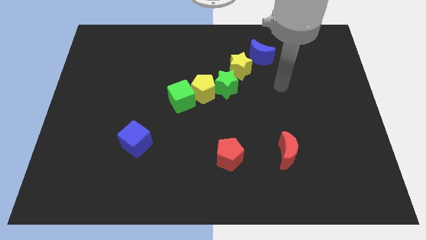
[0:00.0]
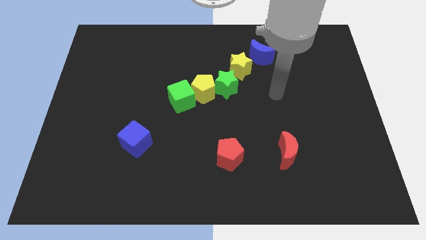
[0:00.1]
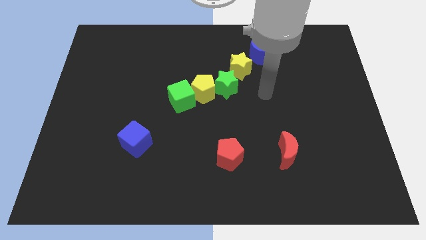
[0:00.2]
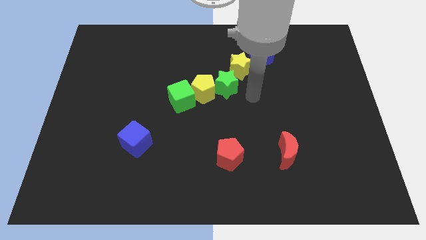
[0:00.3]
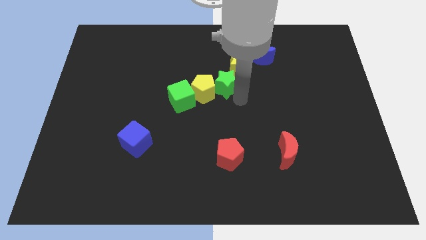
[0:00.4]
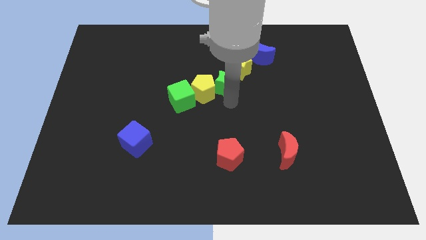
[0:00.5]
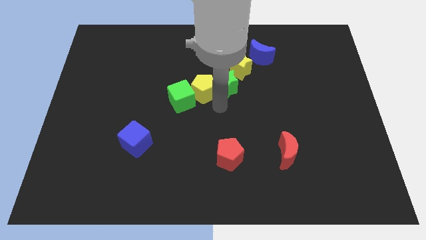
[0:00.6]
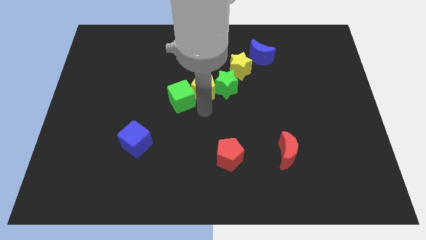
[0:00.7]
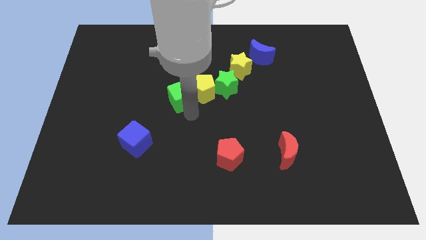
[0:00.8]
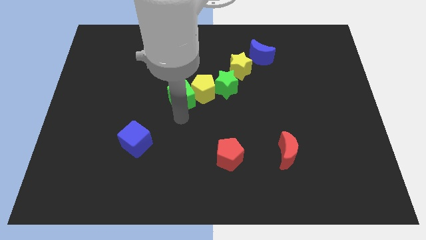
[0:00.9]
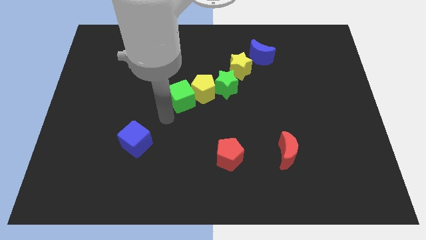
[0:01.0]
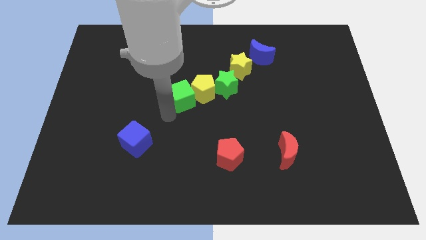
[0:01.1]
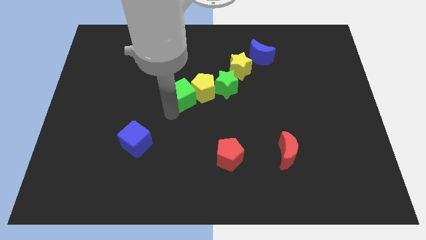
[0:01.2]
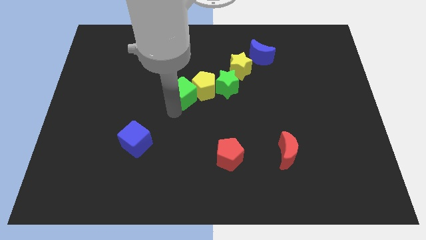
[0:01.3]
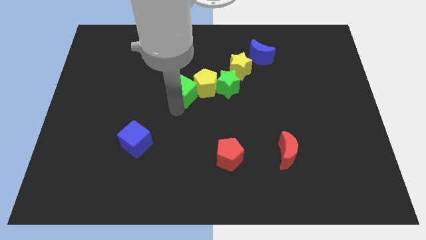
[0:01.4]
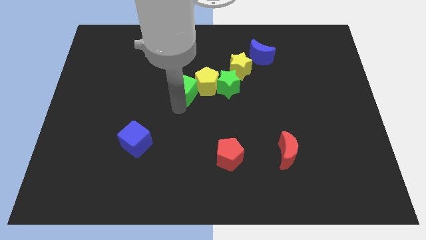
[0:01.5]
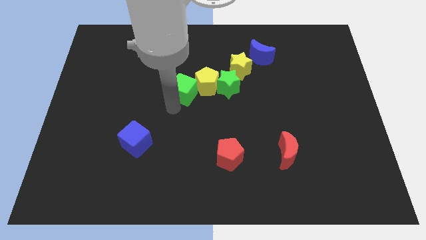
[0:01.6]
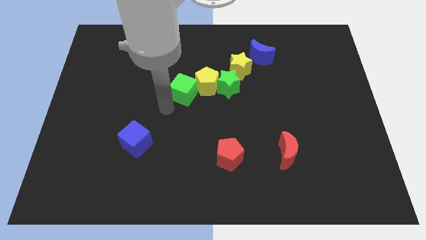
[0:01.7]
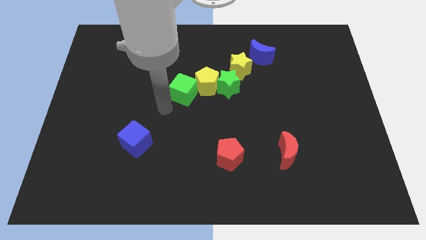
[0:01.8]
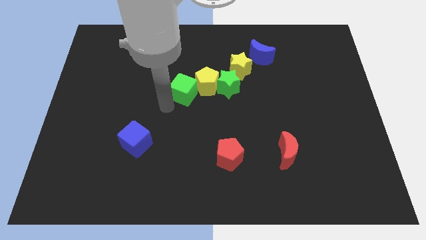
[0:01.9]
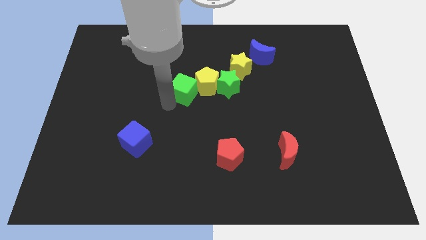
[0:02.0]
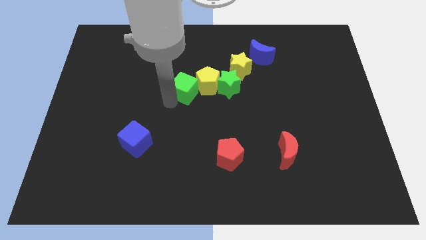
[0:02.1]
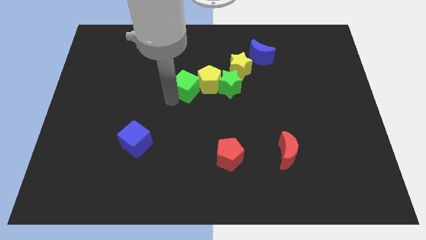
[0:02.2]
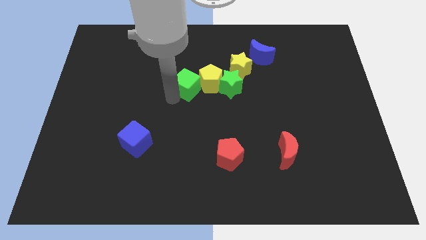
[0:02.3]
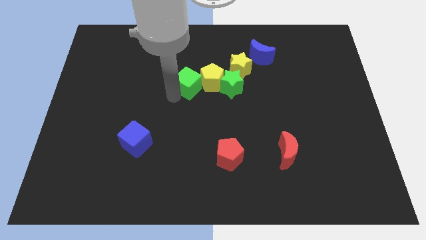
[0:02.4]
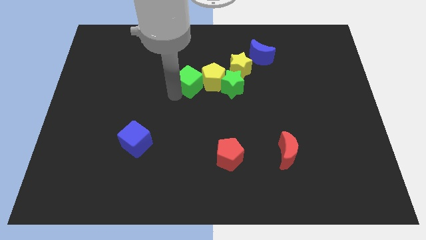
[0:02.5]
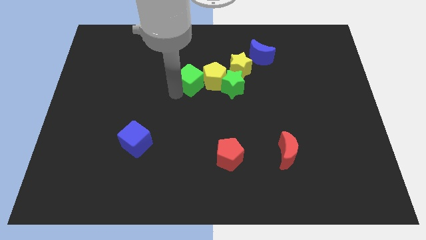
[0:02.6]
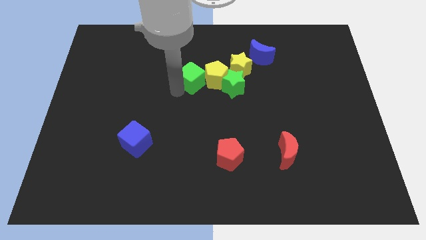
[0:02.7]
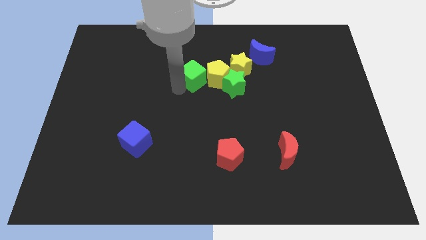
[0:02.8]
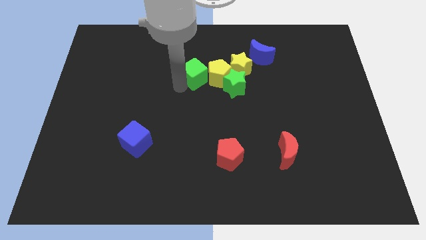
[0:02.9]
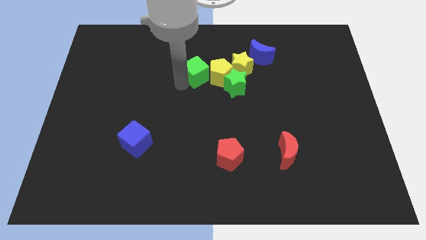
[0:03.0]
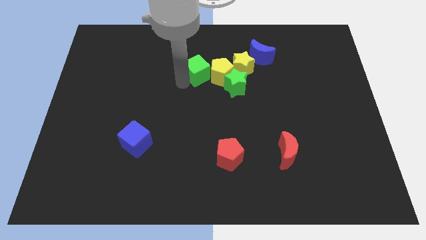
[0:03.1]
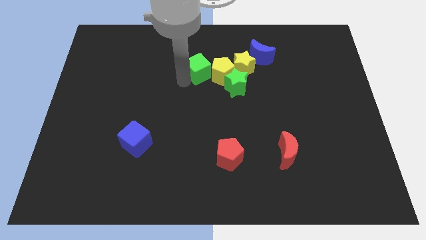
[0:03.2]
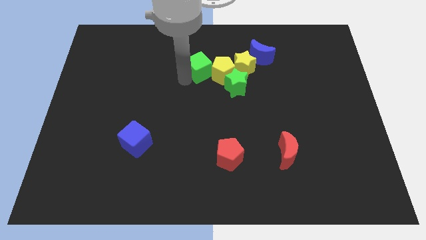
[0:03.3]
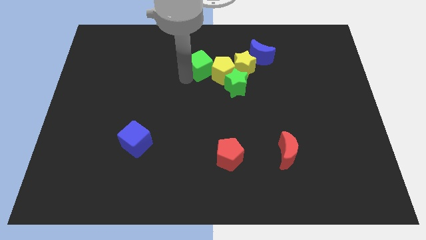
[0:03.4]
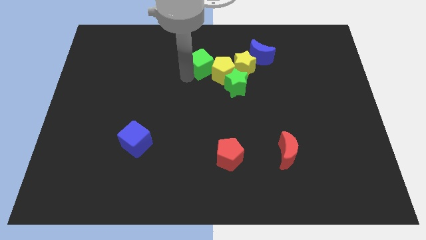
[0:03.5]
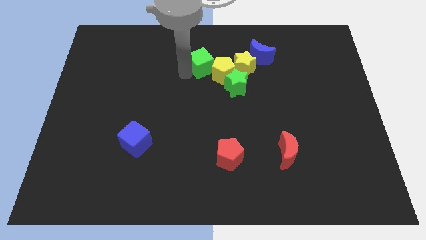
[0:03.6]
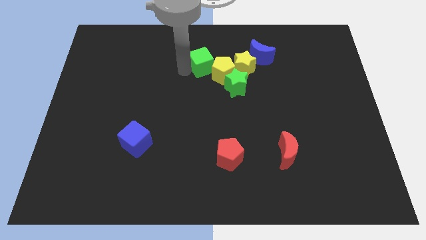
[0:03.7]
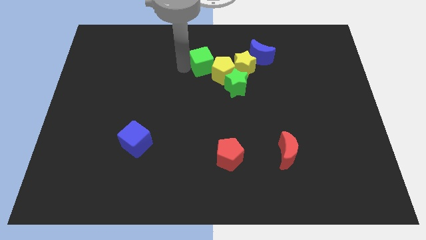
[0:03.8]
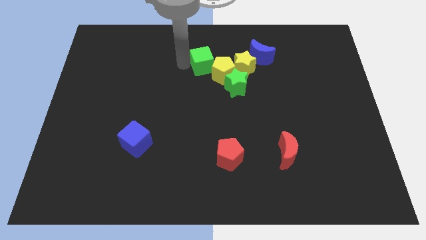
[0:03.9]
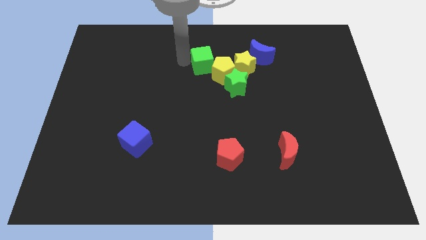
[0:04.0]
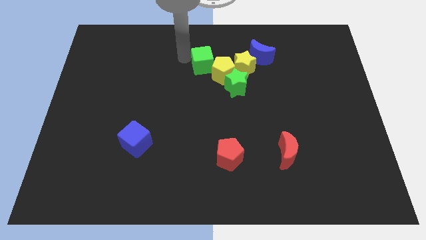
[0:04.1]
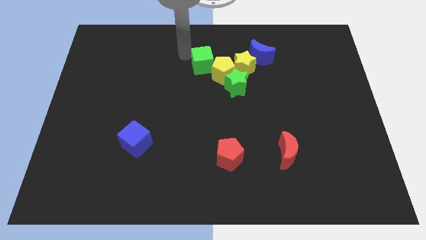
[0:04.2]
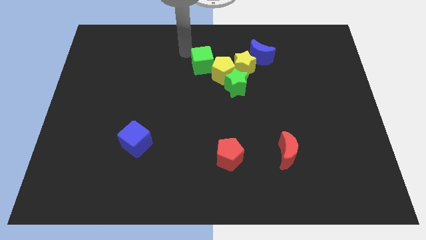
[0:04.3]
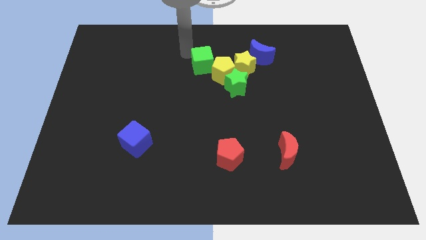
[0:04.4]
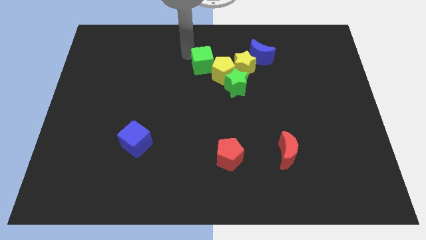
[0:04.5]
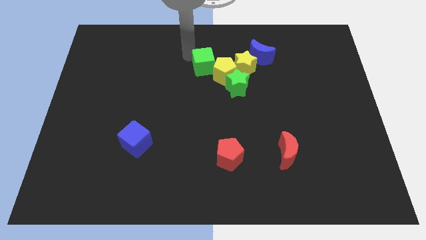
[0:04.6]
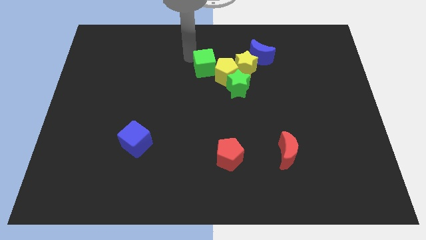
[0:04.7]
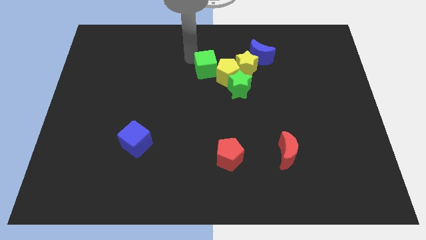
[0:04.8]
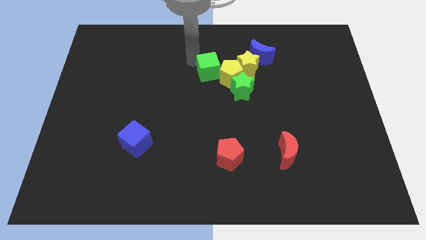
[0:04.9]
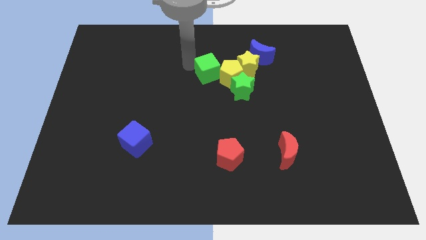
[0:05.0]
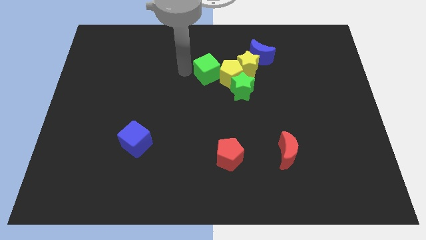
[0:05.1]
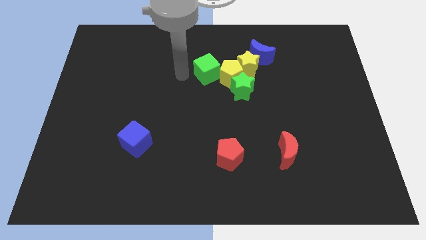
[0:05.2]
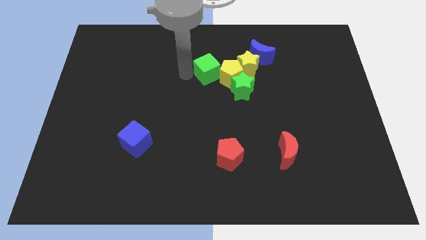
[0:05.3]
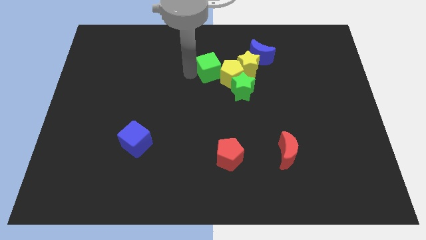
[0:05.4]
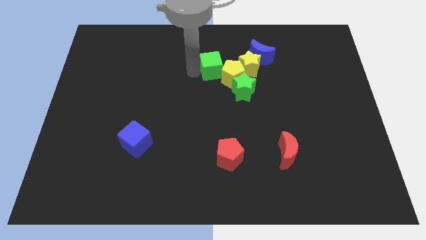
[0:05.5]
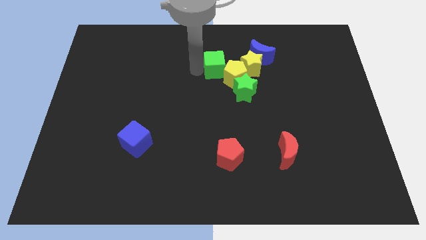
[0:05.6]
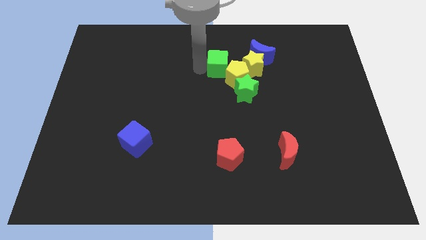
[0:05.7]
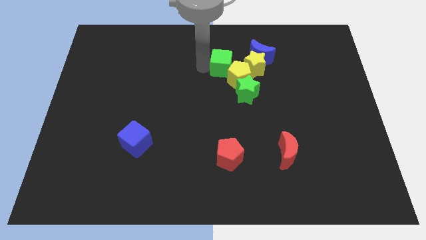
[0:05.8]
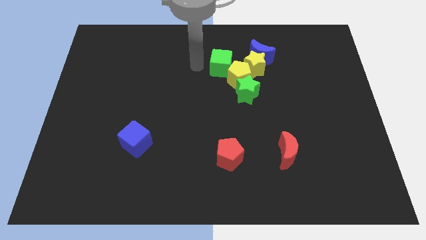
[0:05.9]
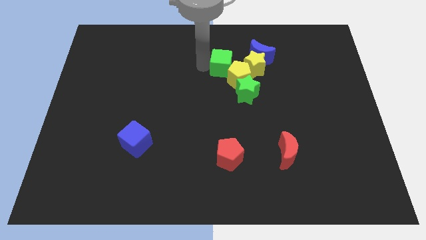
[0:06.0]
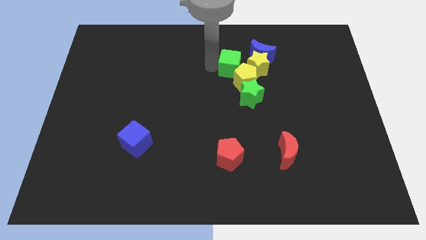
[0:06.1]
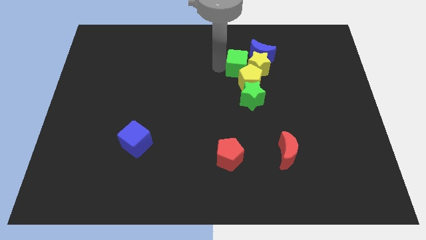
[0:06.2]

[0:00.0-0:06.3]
move the green cube close to the yellow star

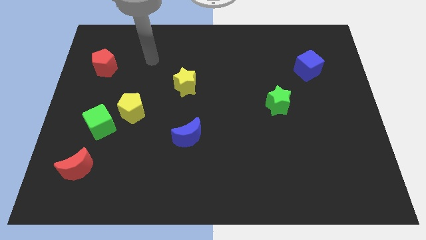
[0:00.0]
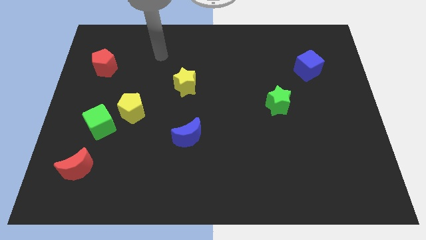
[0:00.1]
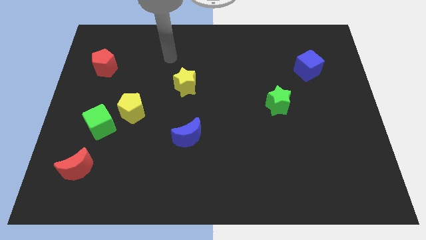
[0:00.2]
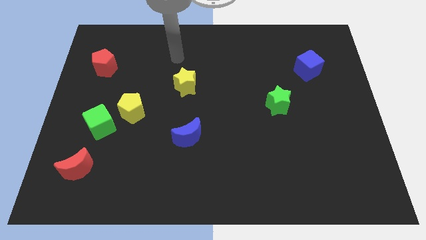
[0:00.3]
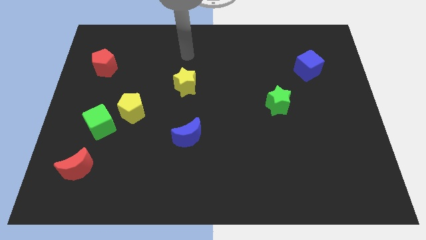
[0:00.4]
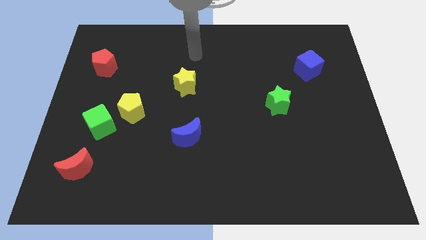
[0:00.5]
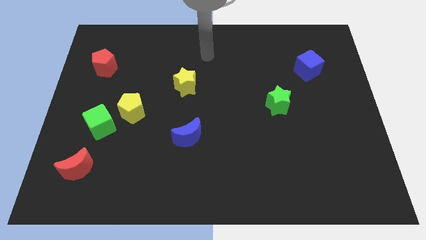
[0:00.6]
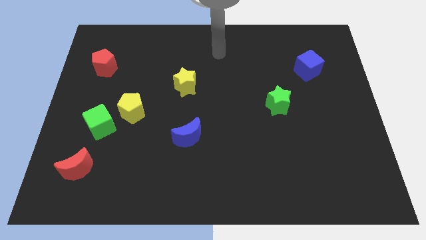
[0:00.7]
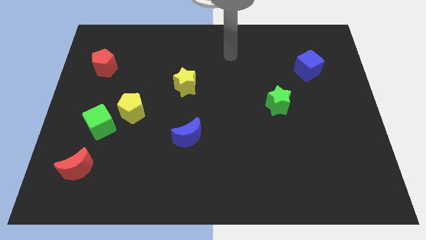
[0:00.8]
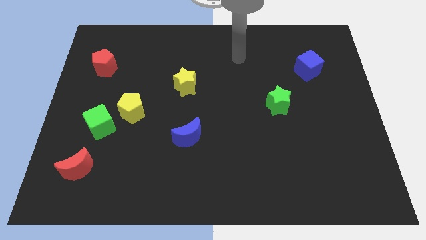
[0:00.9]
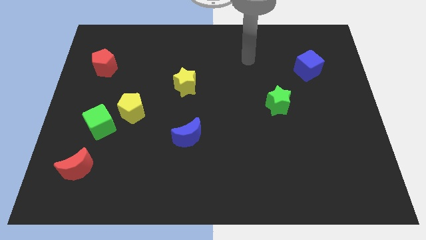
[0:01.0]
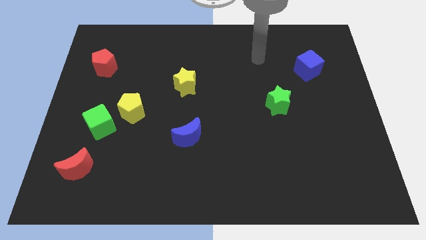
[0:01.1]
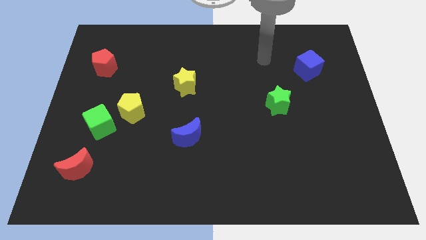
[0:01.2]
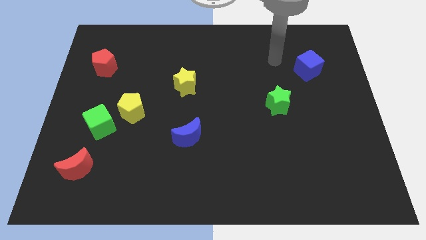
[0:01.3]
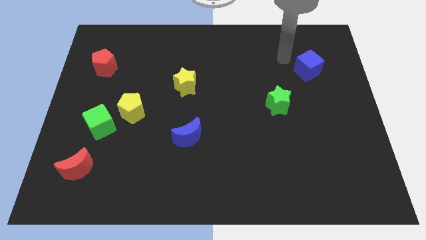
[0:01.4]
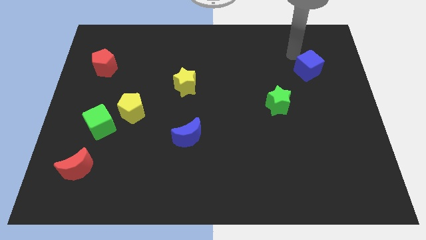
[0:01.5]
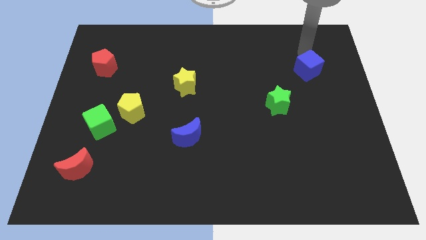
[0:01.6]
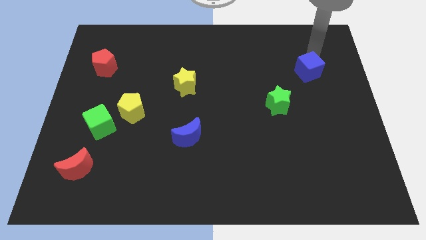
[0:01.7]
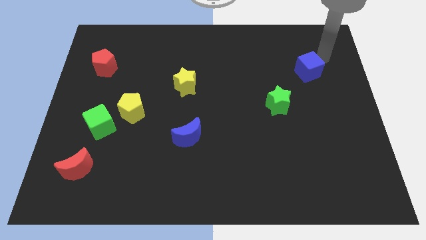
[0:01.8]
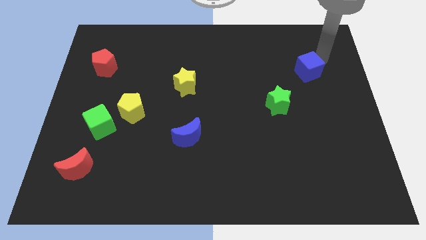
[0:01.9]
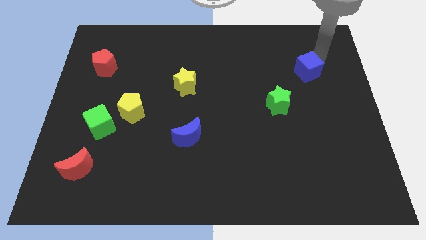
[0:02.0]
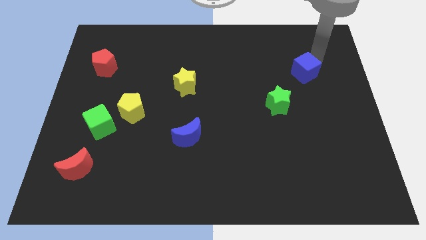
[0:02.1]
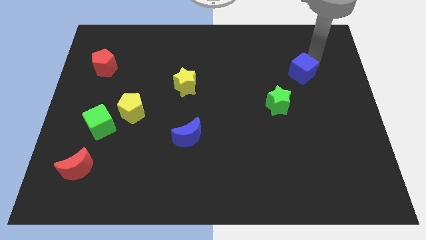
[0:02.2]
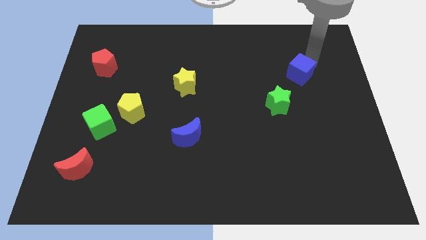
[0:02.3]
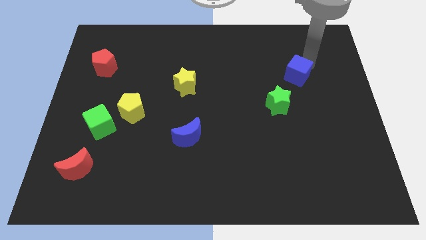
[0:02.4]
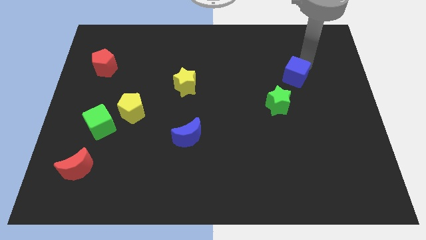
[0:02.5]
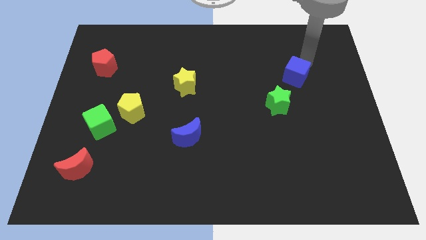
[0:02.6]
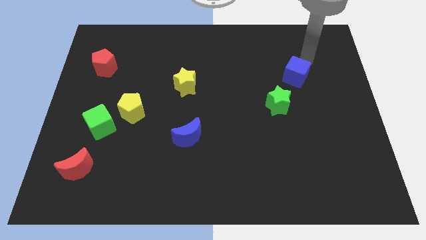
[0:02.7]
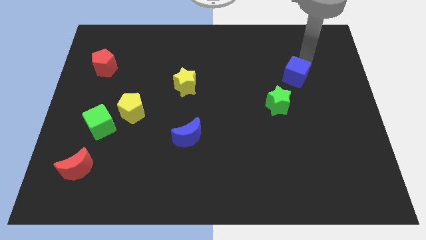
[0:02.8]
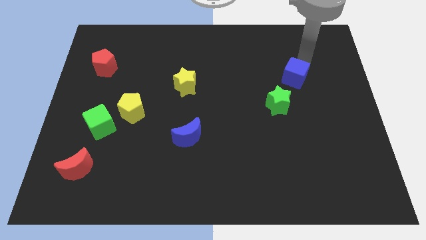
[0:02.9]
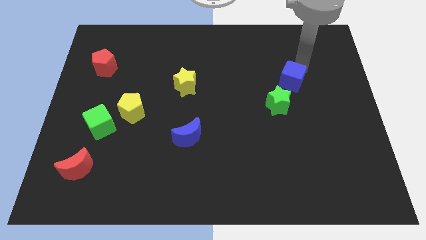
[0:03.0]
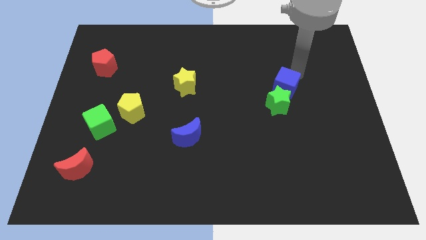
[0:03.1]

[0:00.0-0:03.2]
move the blue cube next to the green star
